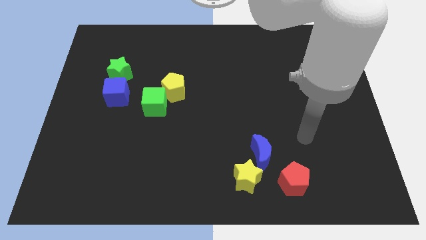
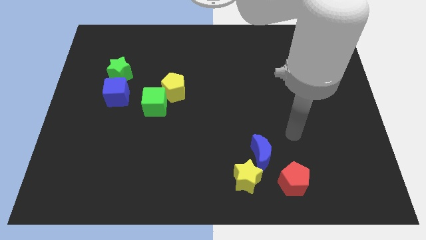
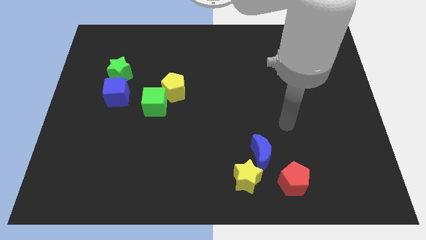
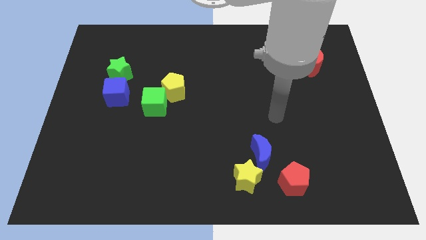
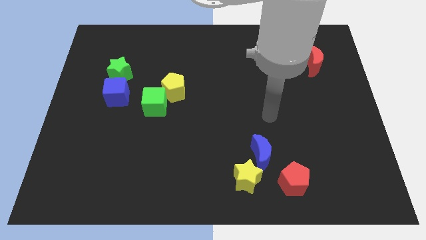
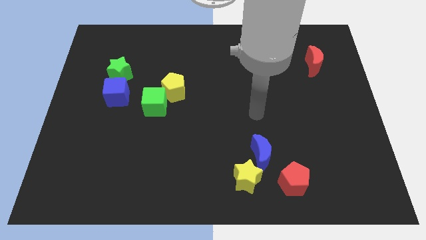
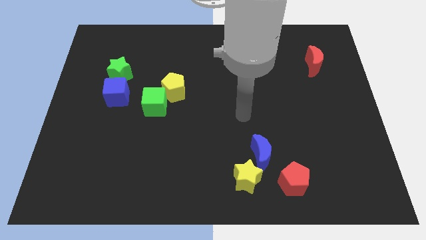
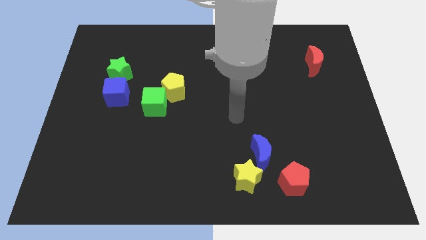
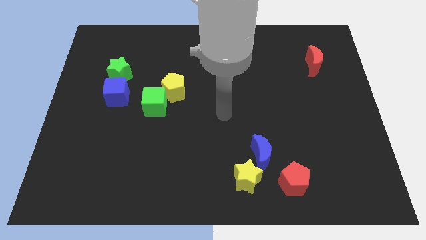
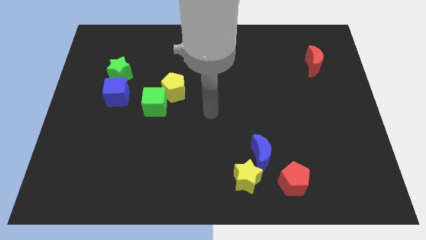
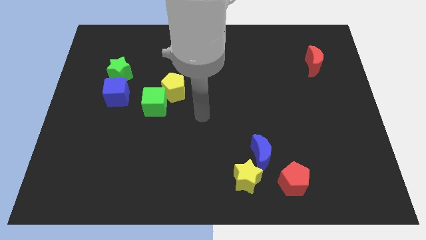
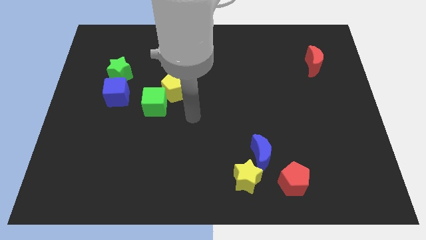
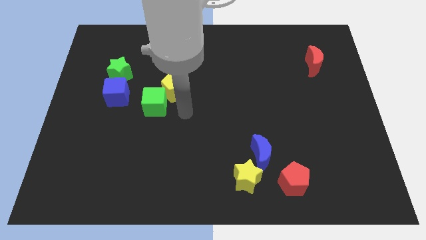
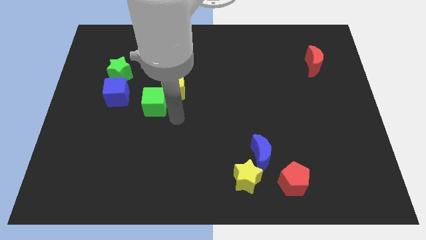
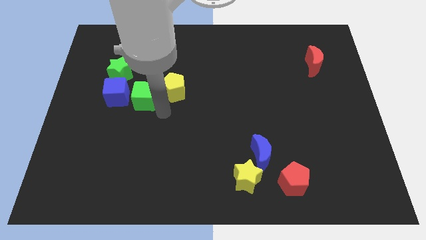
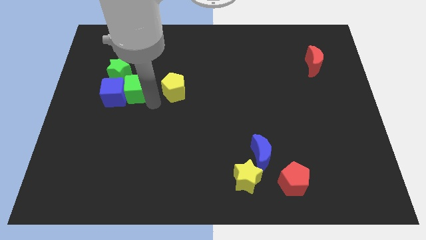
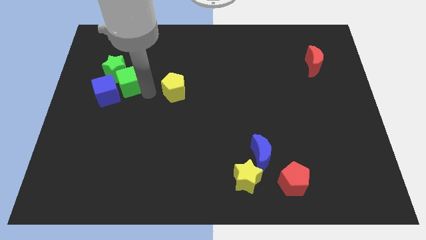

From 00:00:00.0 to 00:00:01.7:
pull the yellow pentagon apart from the green cube

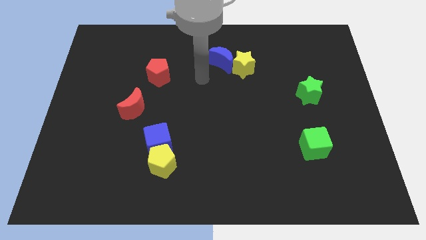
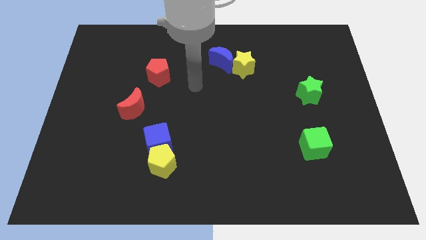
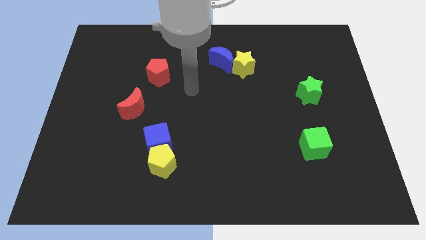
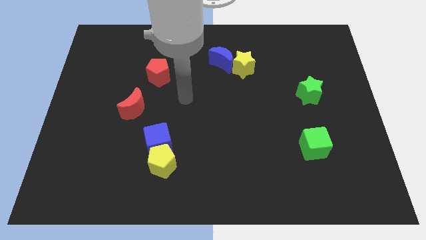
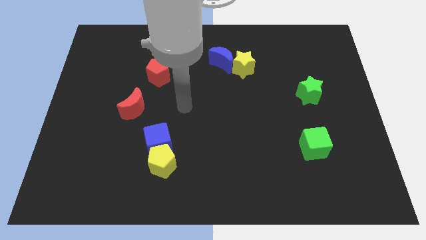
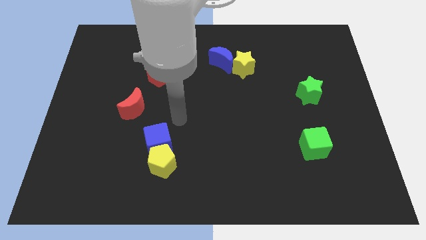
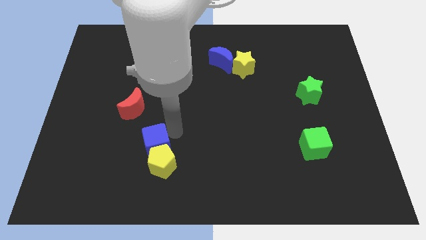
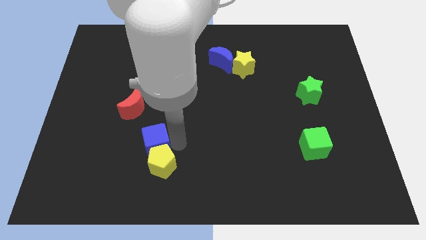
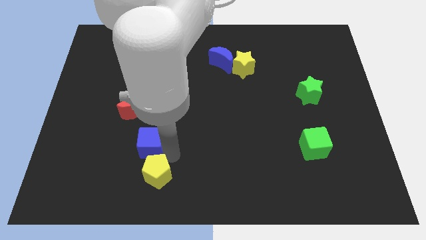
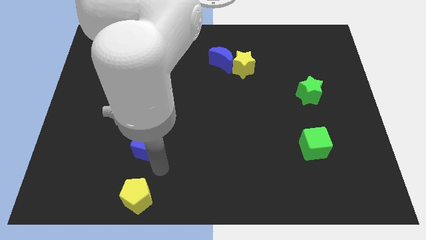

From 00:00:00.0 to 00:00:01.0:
move the blue cube away from the yellow pentagon

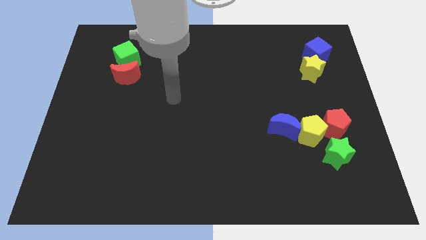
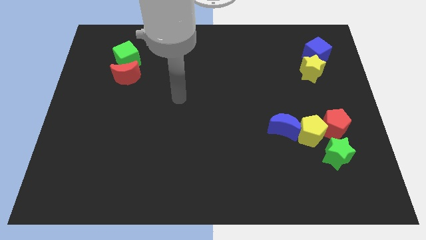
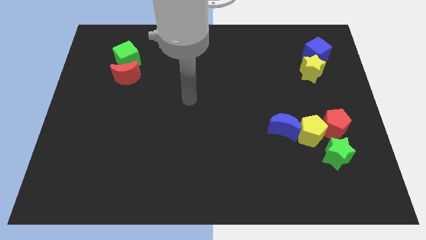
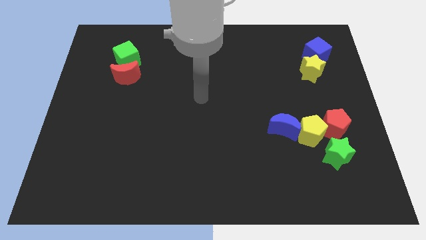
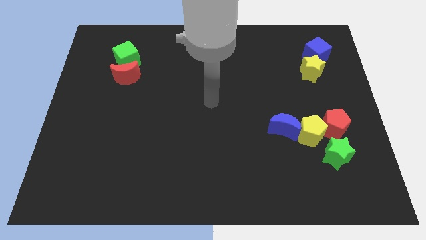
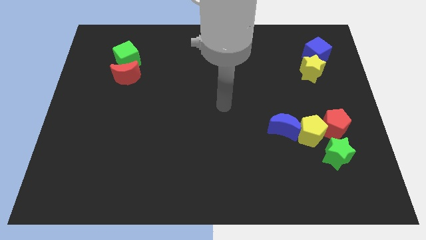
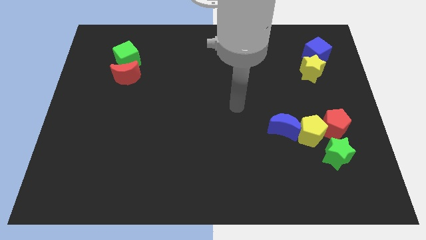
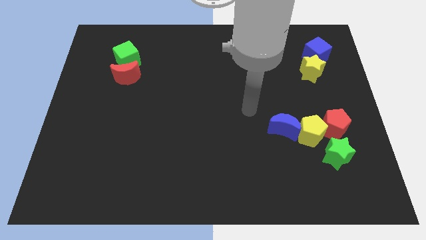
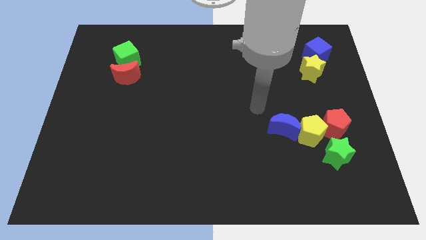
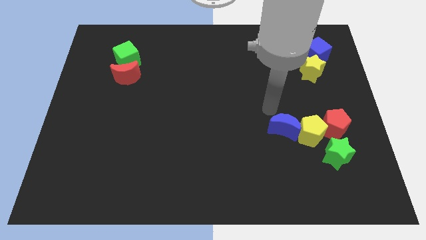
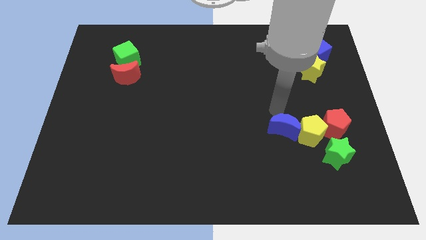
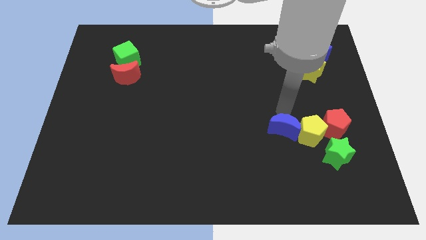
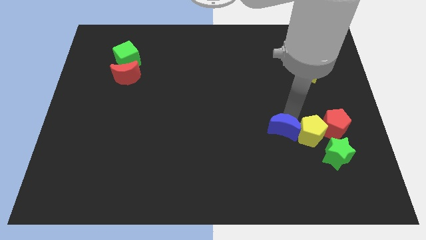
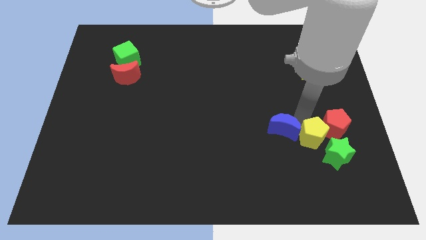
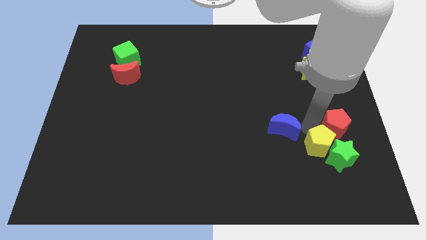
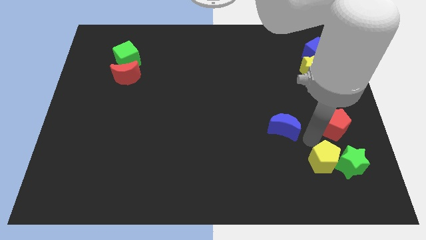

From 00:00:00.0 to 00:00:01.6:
separate the blue moon from the yellow pentagon

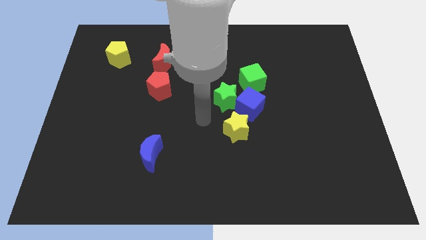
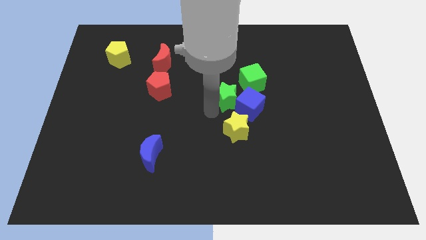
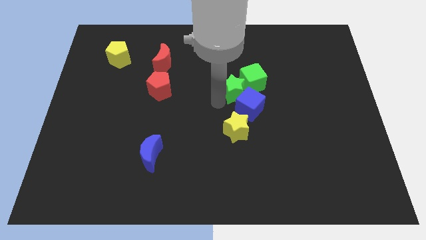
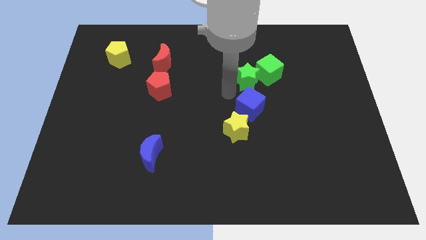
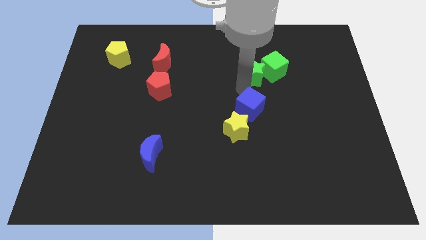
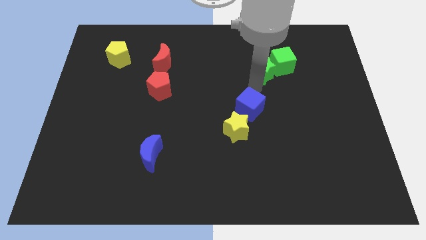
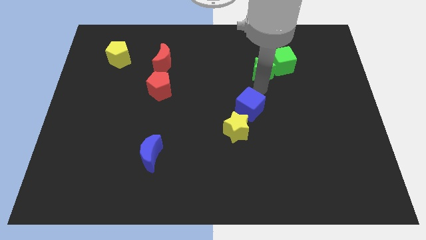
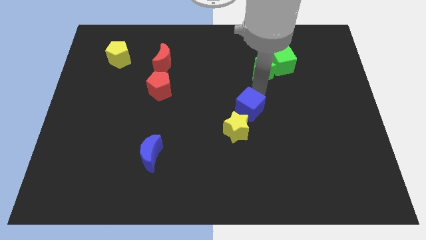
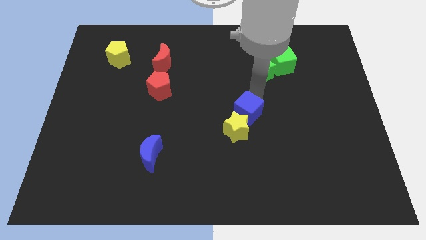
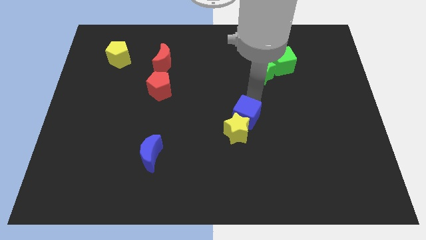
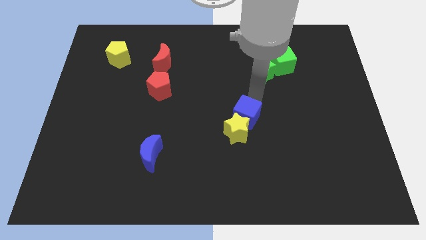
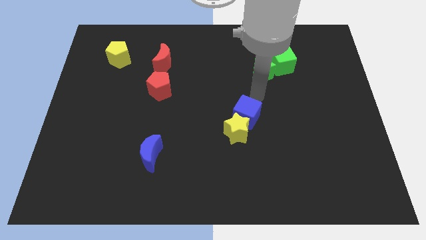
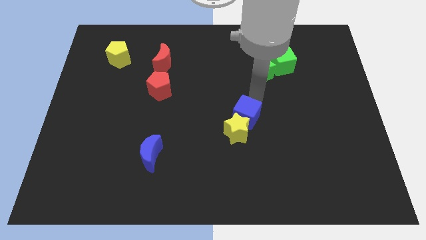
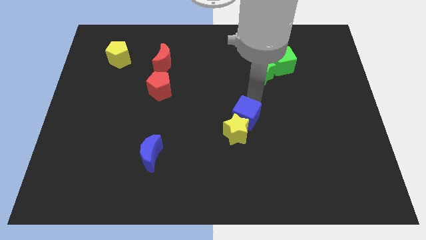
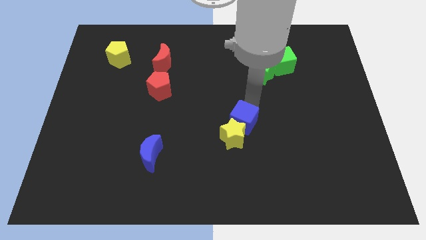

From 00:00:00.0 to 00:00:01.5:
move the blue cube away from the group of blocks

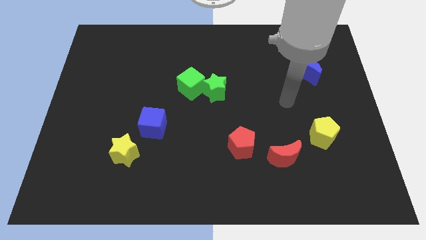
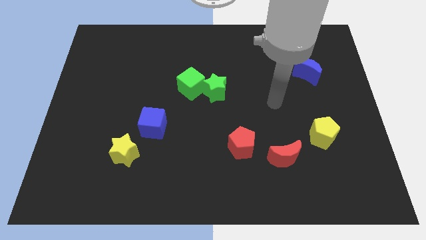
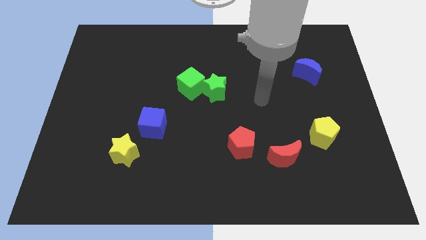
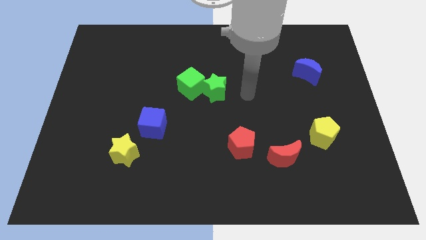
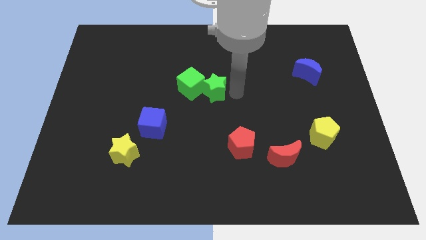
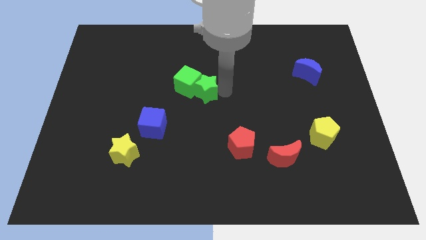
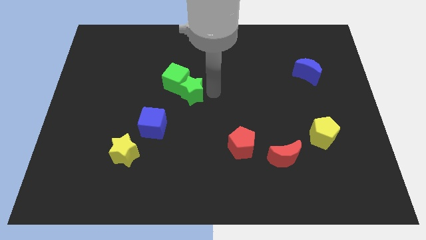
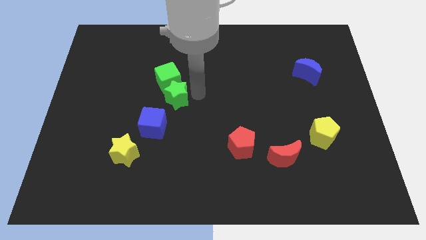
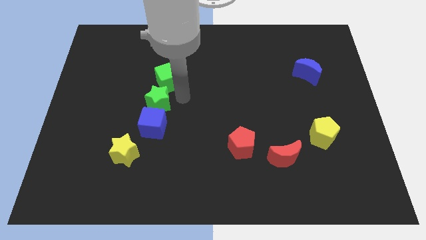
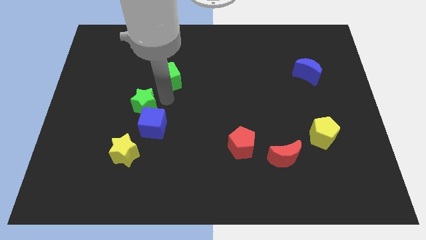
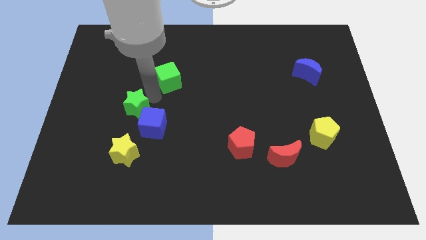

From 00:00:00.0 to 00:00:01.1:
pull the green cube apart from the green star

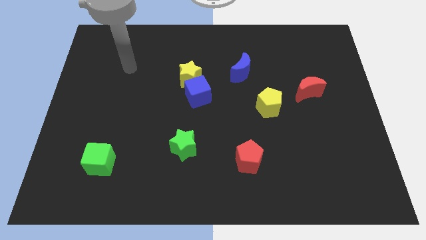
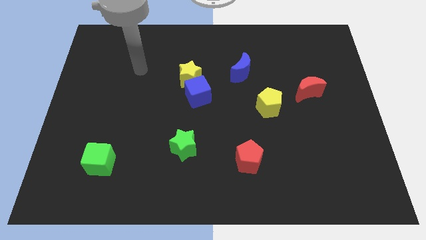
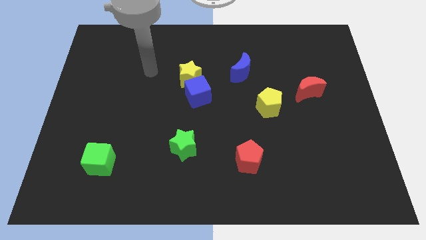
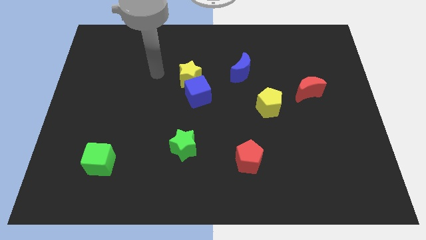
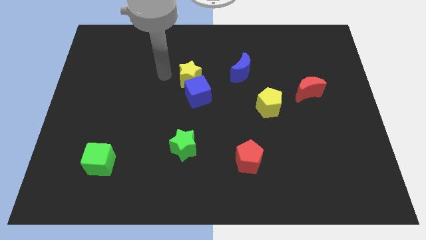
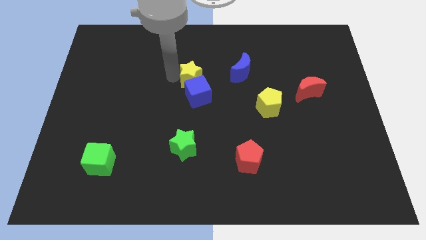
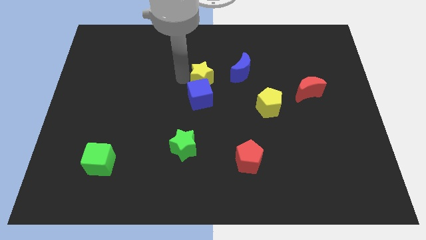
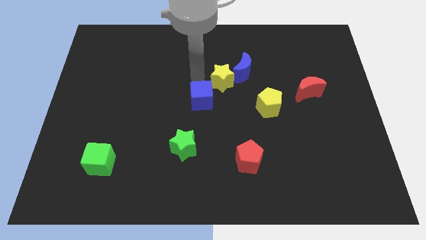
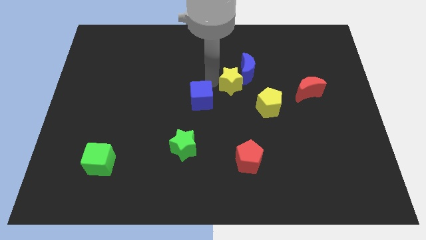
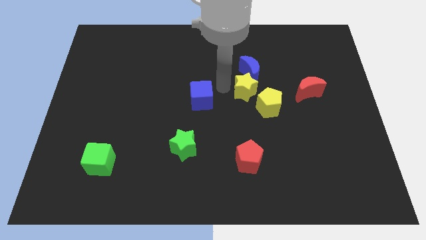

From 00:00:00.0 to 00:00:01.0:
pull the blue cube apart from the yellow star

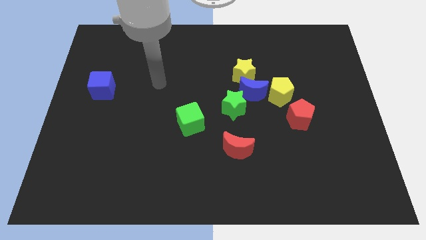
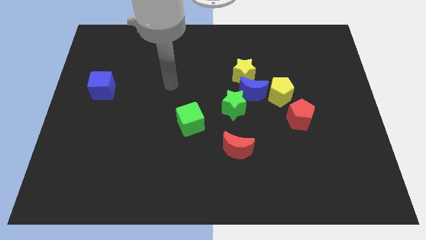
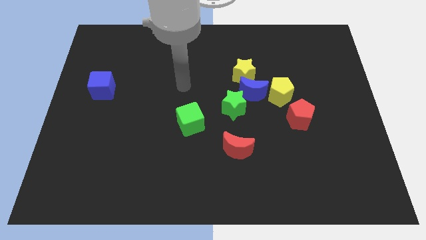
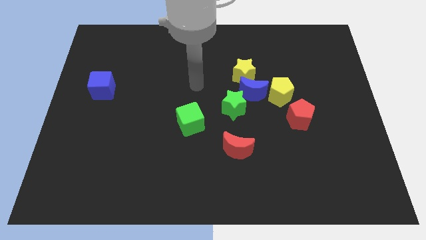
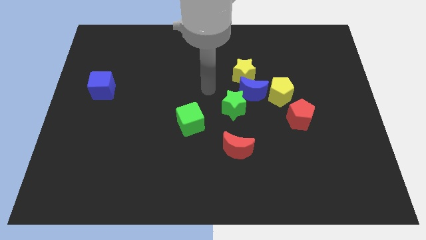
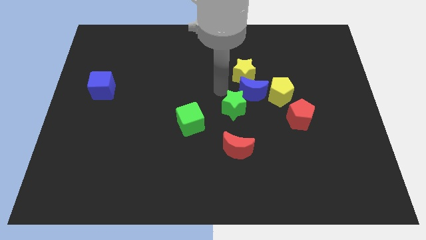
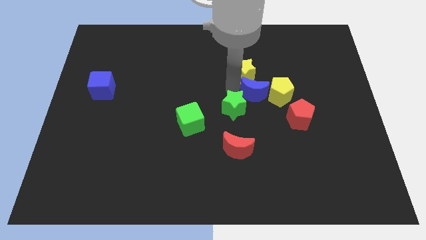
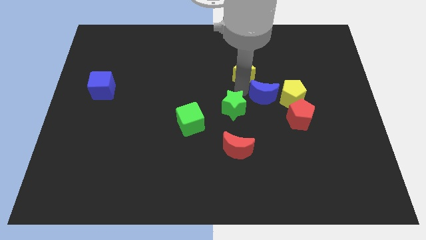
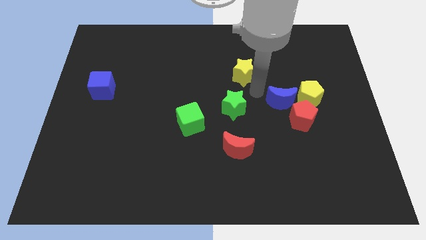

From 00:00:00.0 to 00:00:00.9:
move the yellow star away from the blue moon

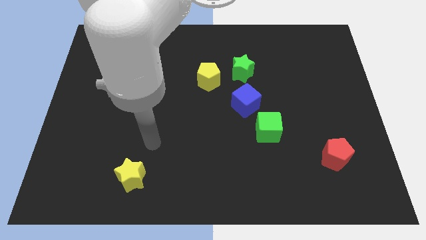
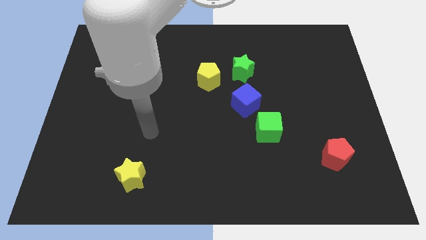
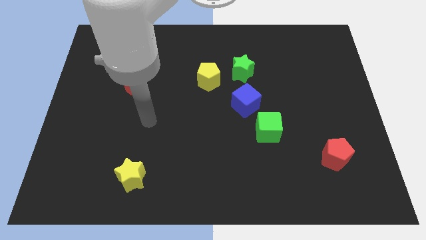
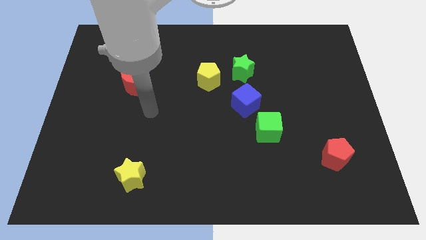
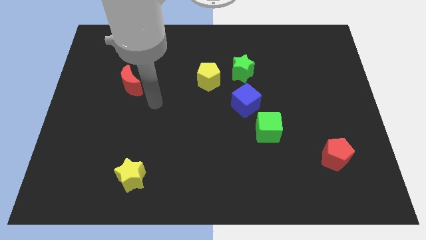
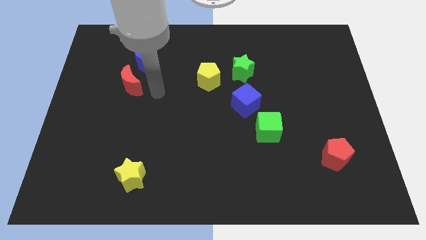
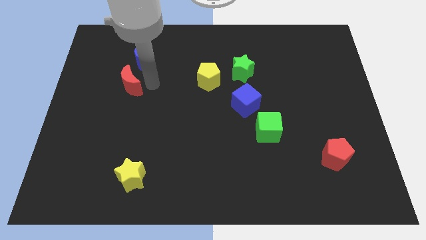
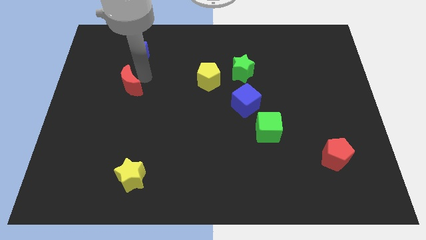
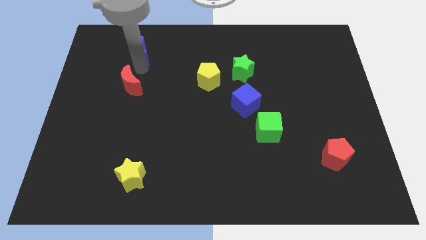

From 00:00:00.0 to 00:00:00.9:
move the red moon away from the blue moon
